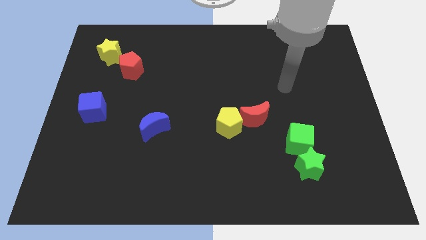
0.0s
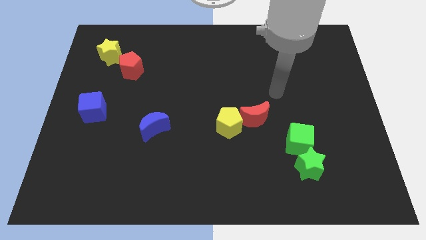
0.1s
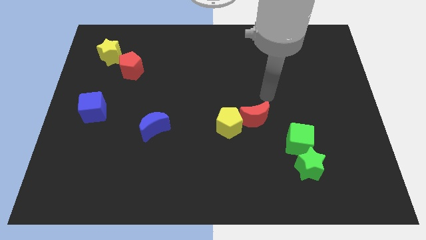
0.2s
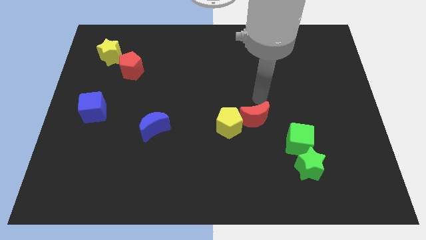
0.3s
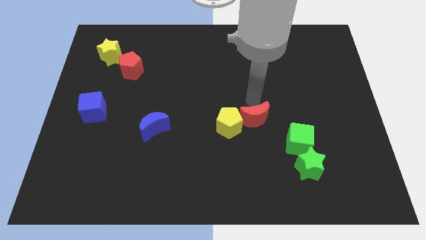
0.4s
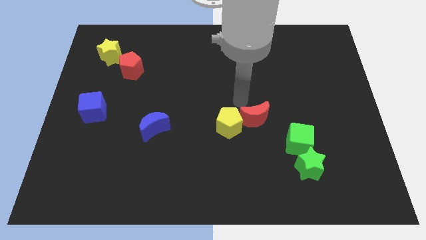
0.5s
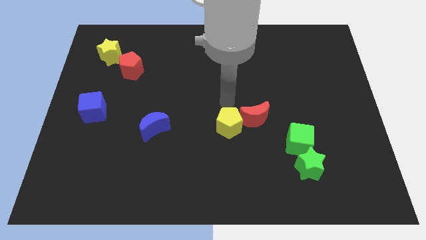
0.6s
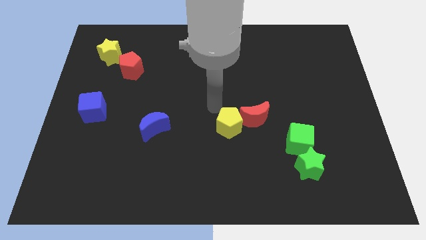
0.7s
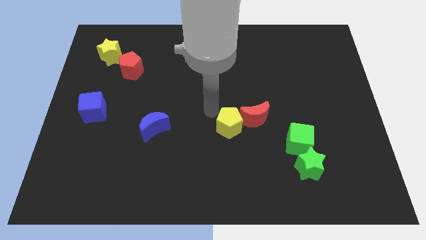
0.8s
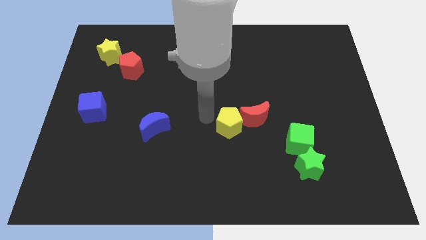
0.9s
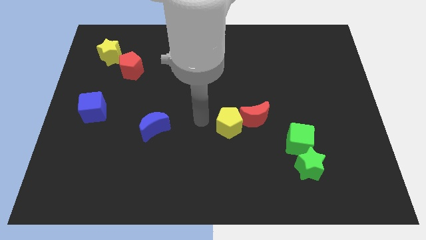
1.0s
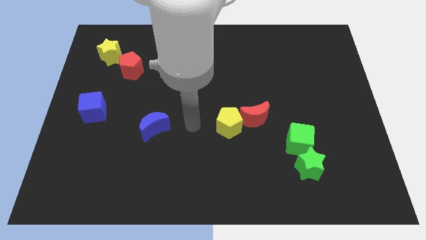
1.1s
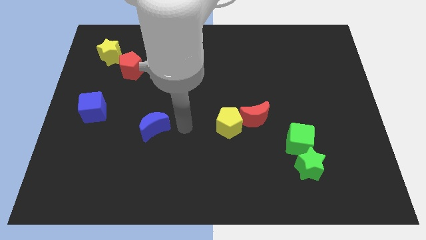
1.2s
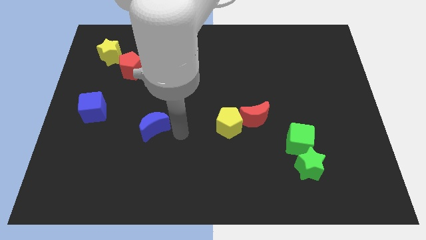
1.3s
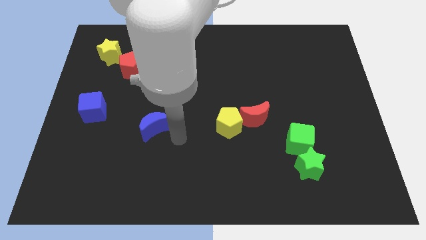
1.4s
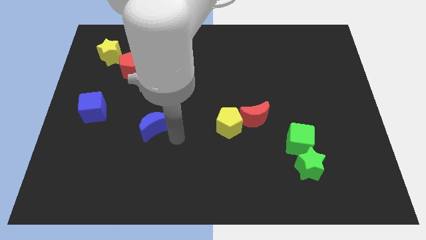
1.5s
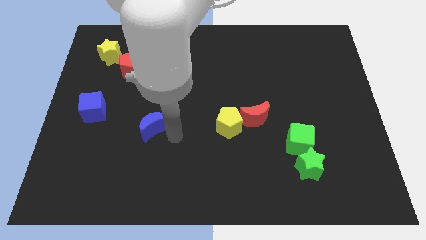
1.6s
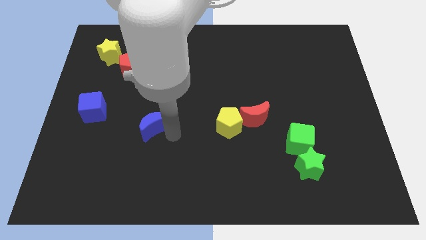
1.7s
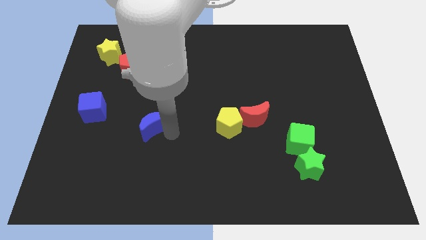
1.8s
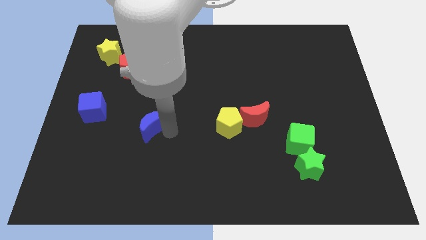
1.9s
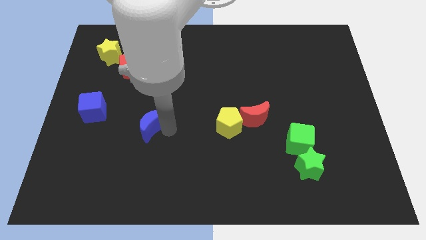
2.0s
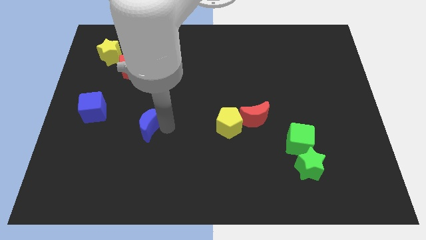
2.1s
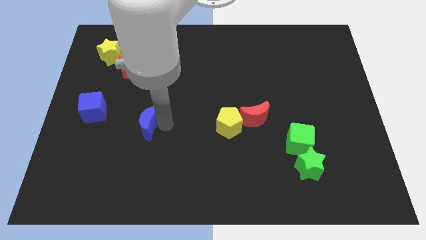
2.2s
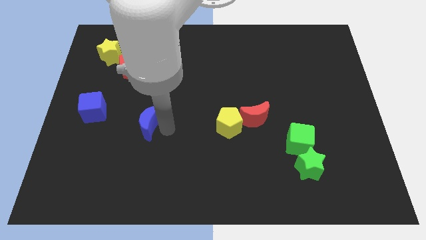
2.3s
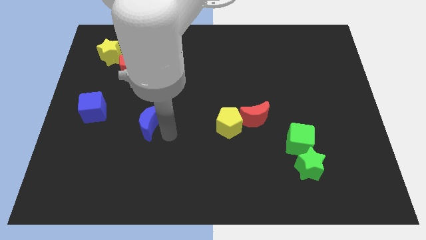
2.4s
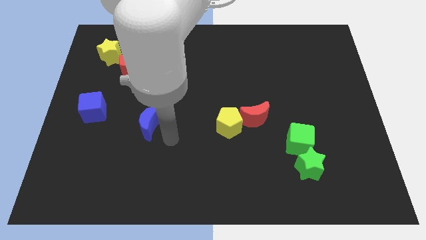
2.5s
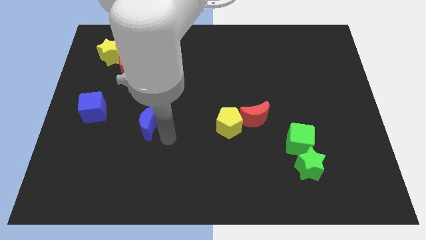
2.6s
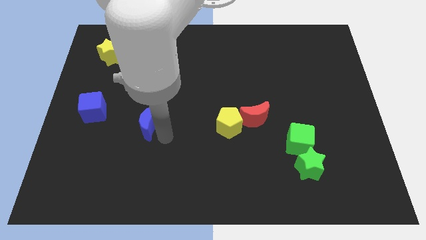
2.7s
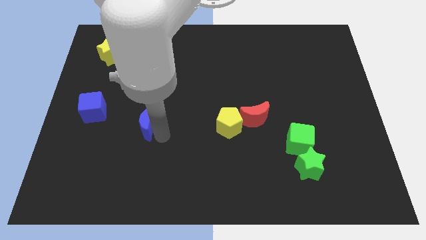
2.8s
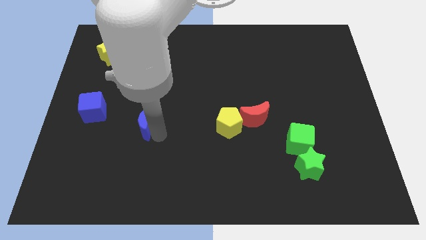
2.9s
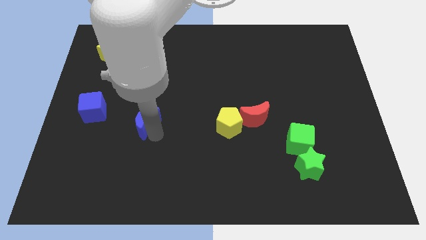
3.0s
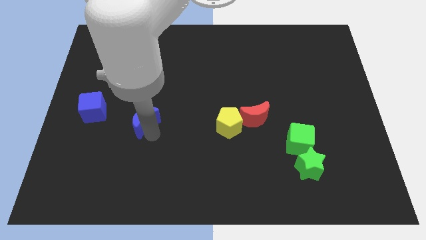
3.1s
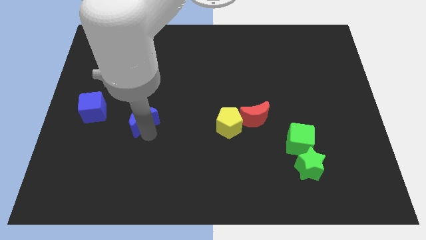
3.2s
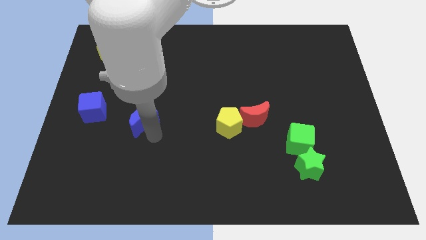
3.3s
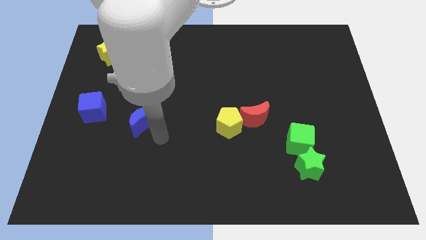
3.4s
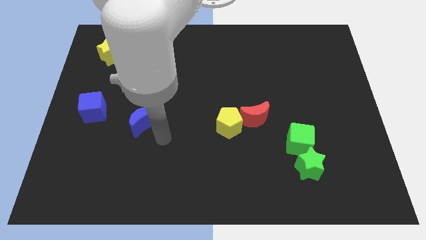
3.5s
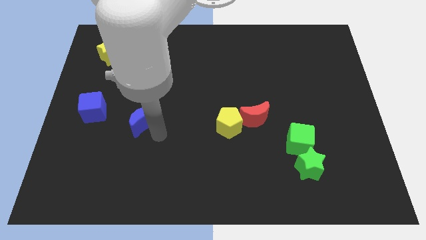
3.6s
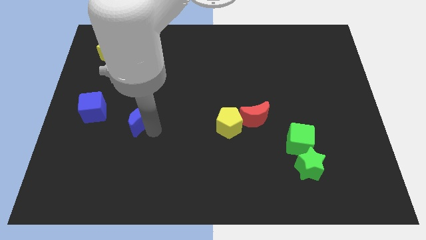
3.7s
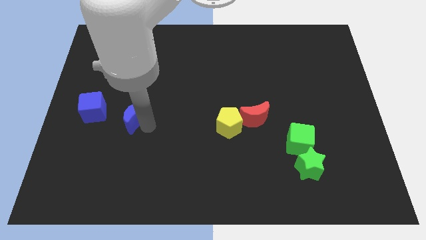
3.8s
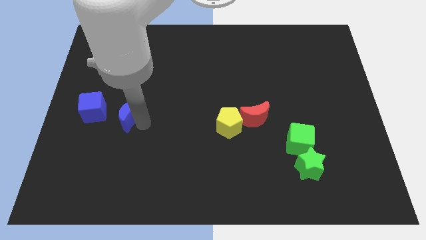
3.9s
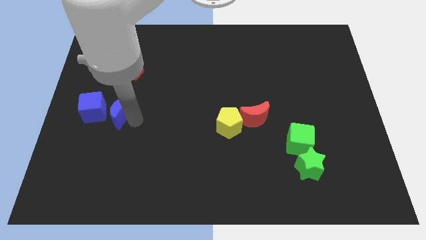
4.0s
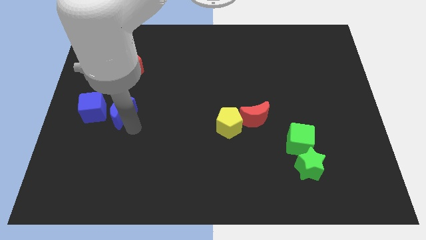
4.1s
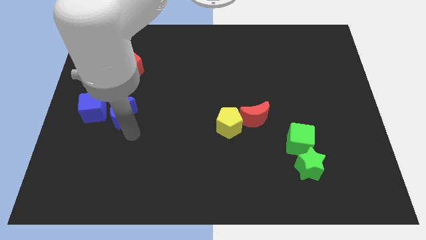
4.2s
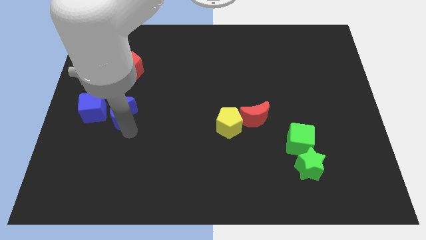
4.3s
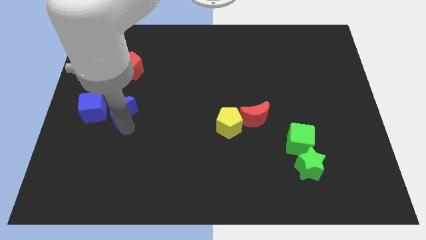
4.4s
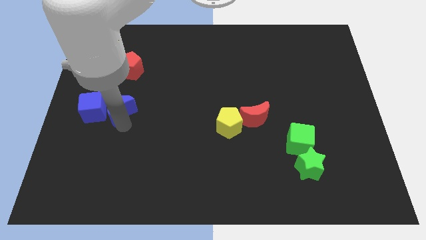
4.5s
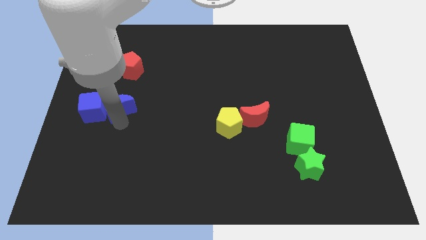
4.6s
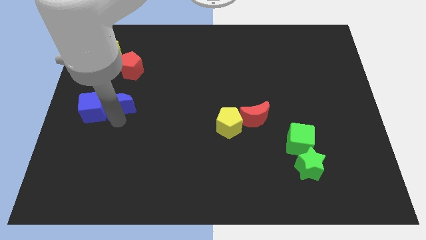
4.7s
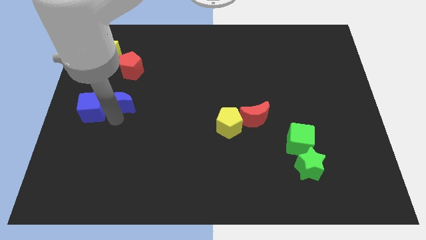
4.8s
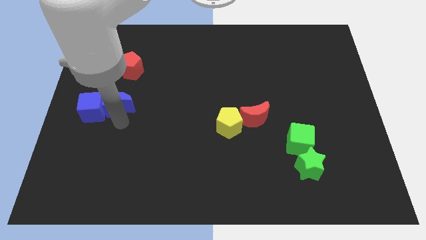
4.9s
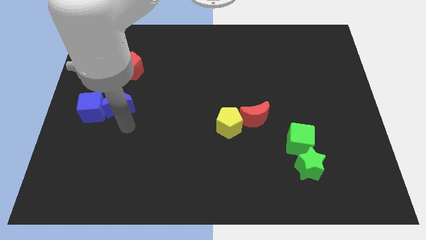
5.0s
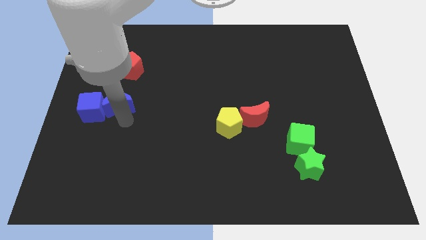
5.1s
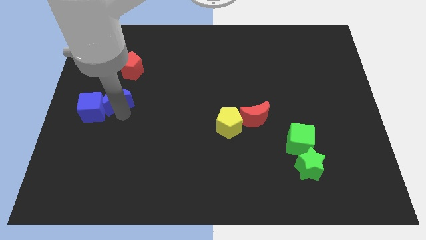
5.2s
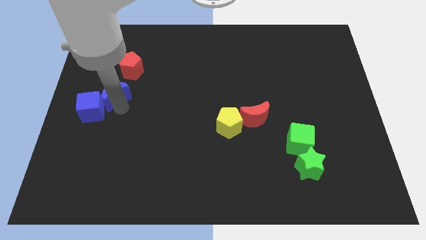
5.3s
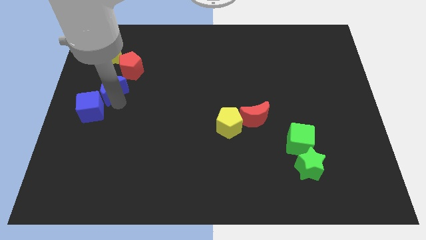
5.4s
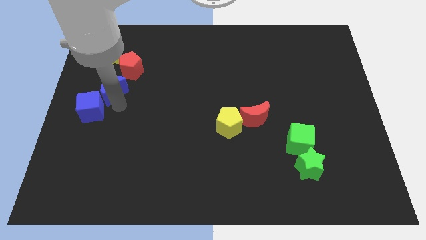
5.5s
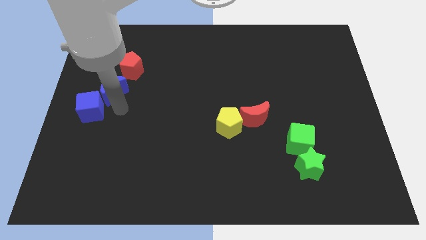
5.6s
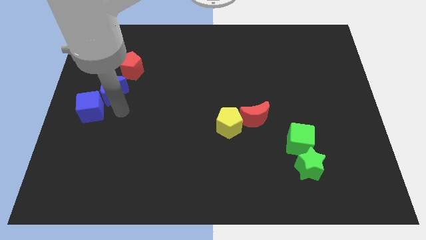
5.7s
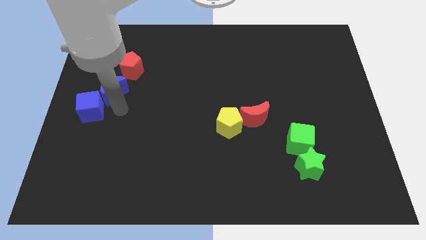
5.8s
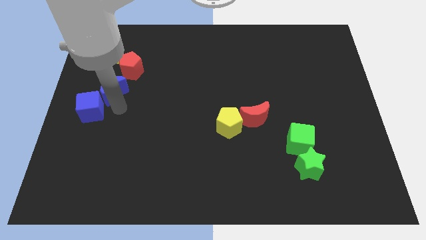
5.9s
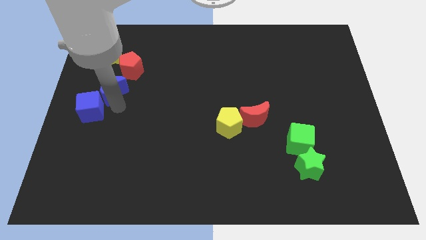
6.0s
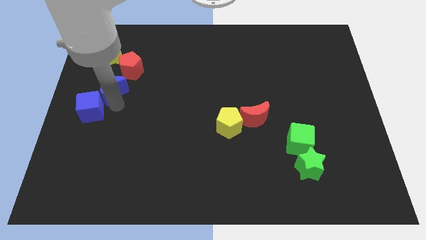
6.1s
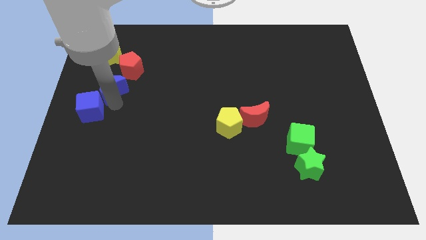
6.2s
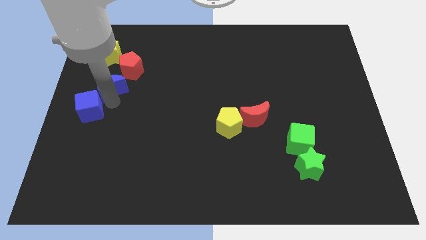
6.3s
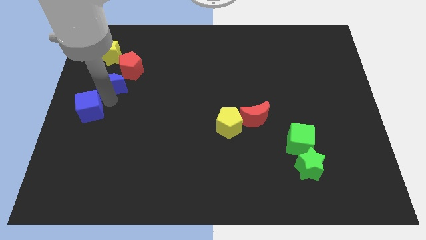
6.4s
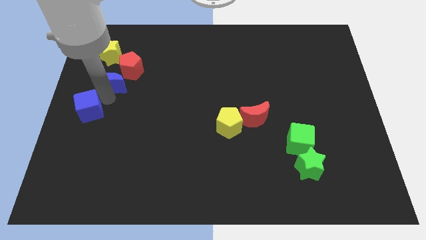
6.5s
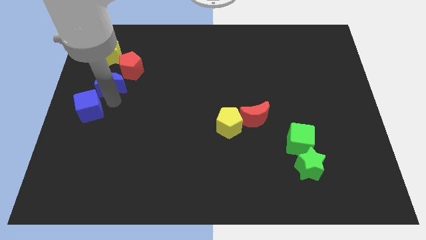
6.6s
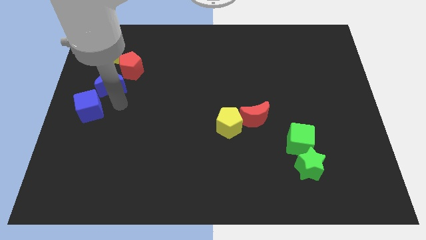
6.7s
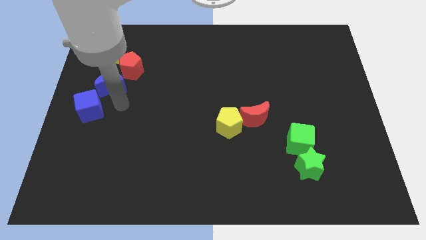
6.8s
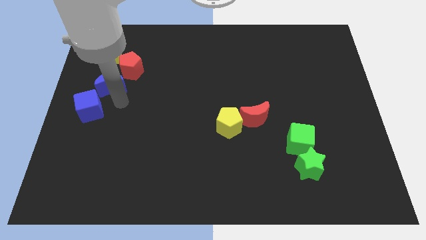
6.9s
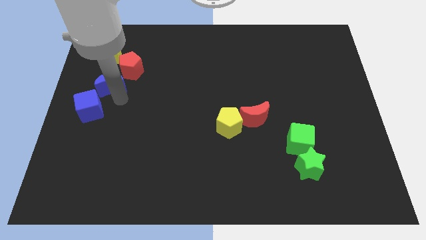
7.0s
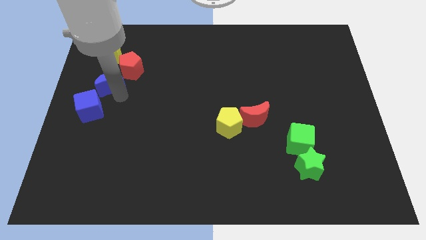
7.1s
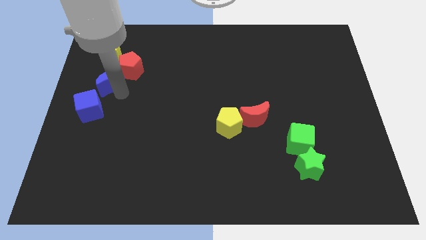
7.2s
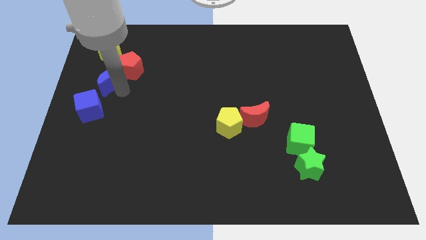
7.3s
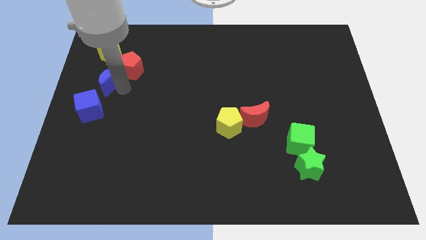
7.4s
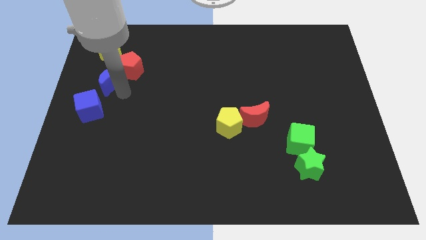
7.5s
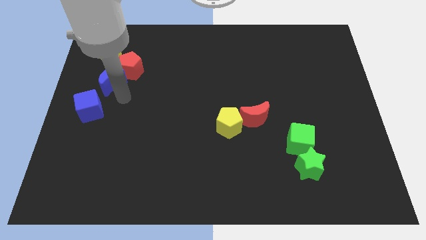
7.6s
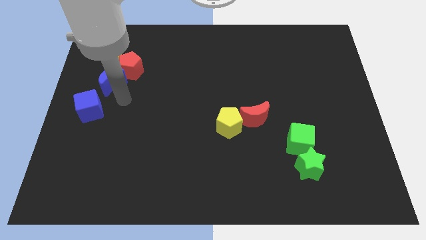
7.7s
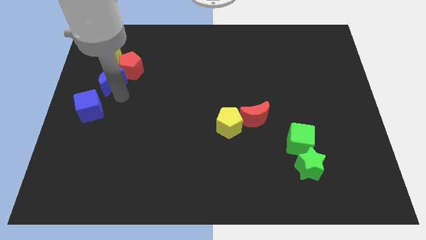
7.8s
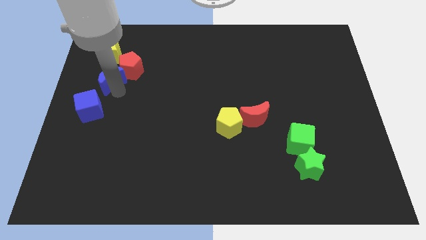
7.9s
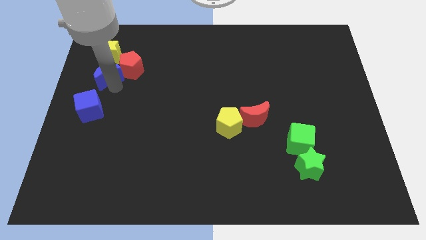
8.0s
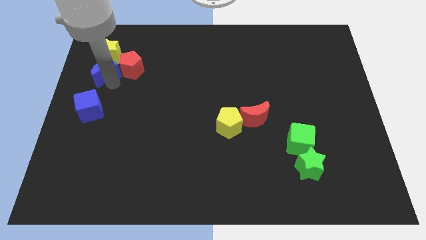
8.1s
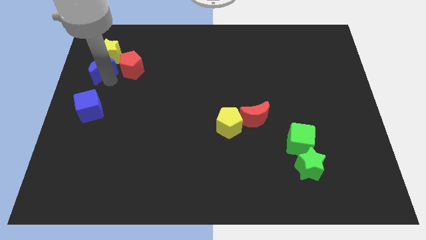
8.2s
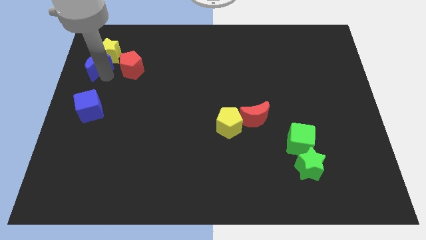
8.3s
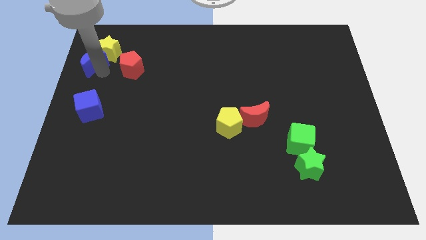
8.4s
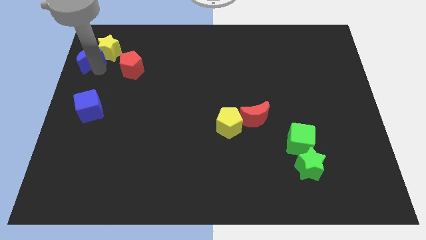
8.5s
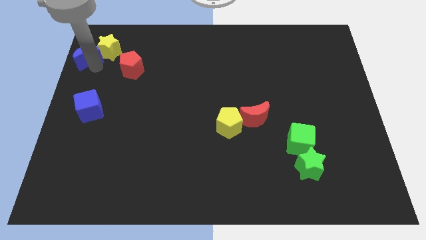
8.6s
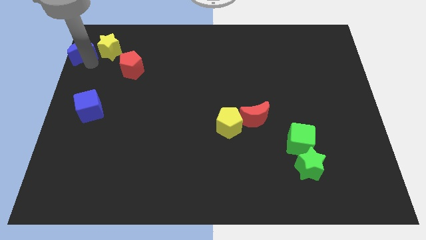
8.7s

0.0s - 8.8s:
put the blue moon to the top left corner
